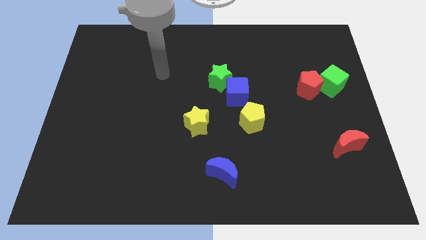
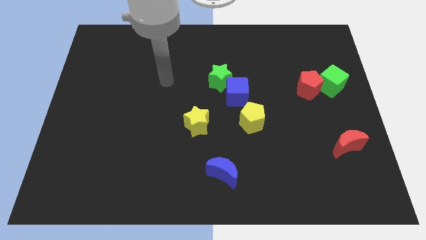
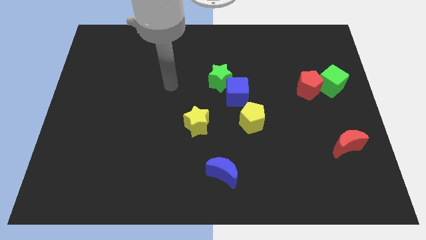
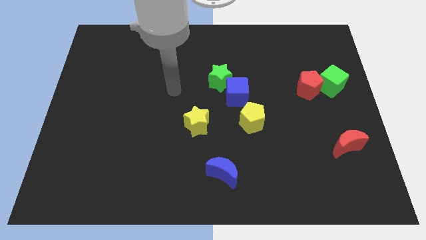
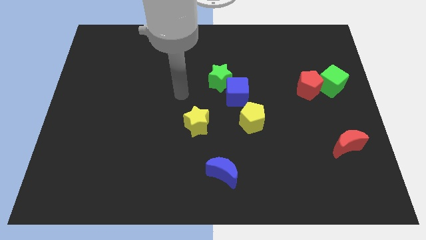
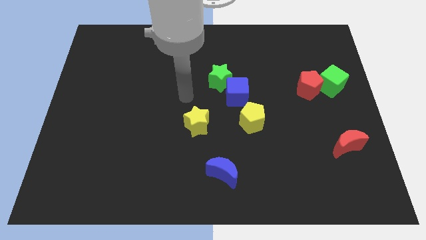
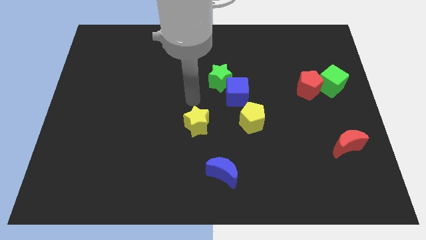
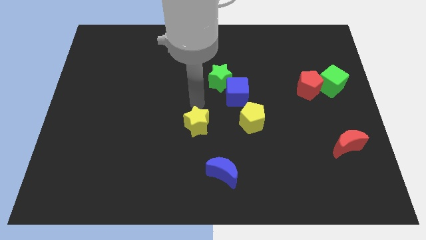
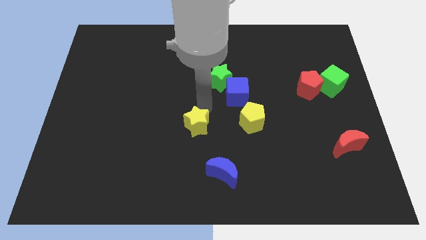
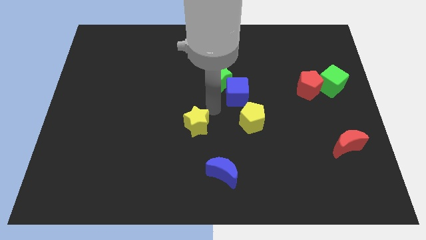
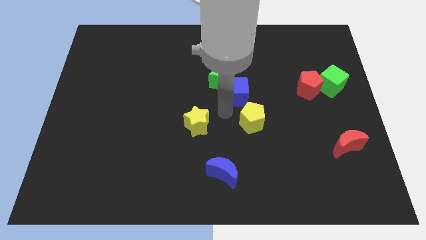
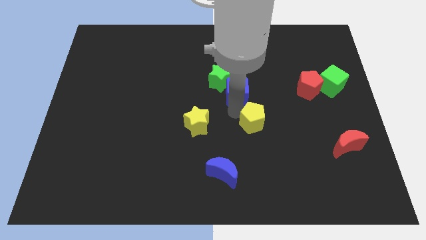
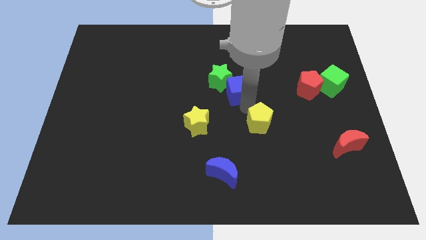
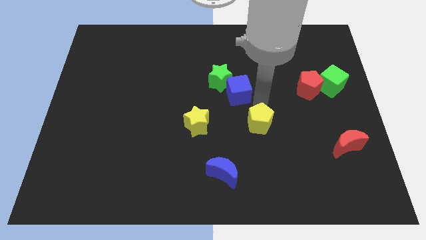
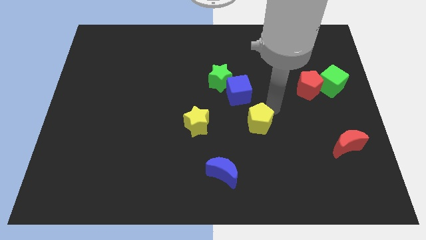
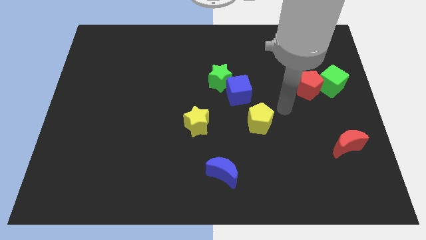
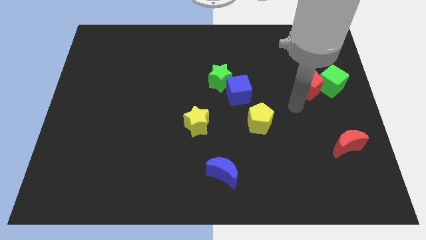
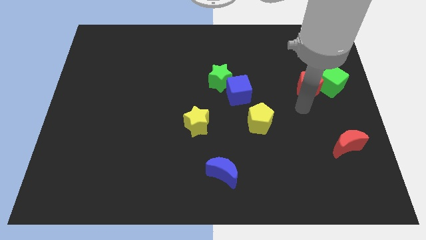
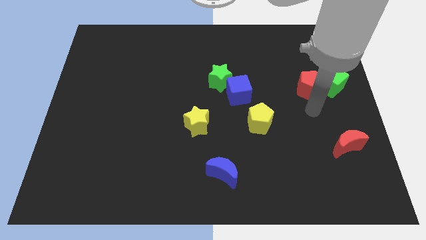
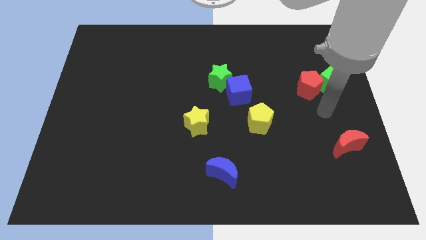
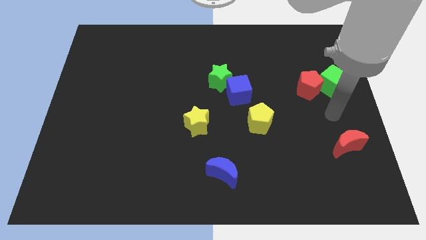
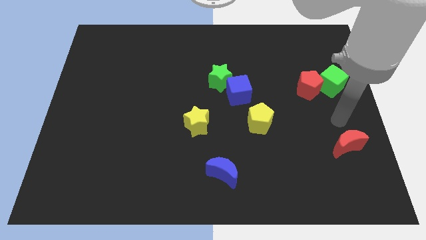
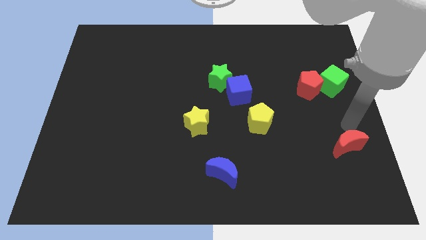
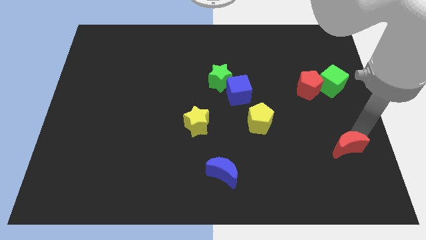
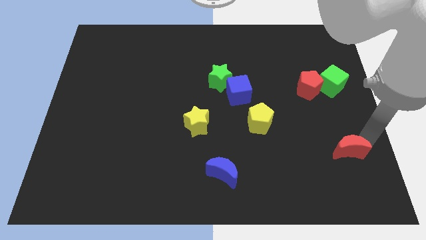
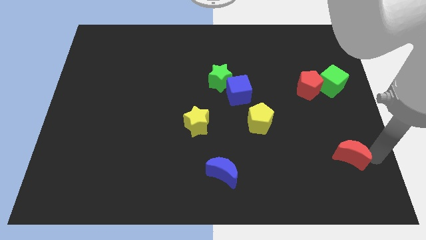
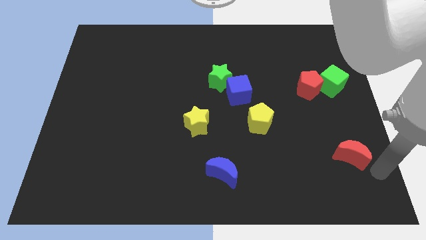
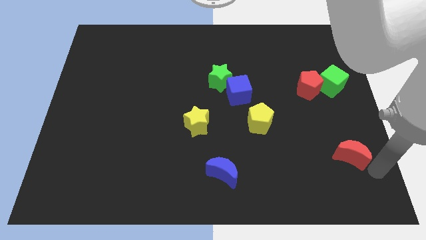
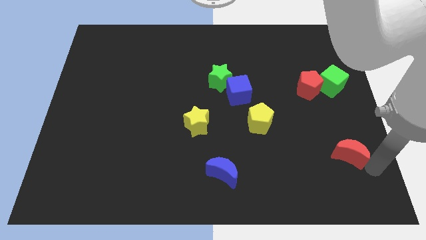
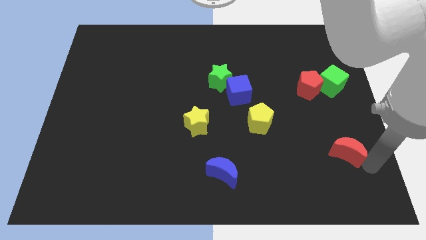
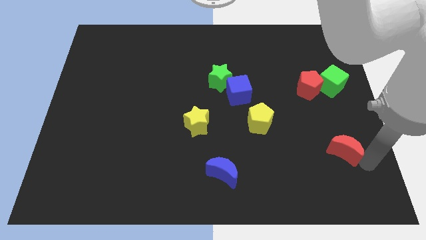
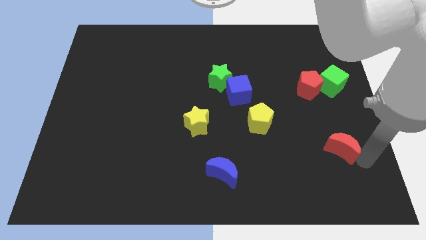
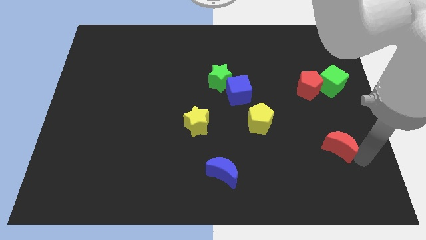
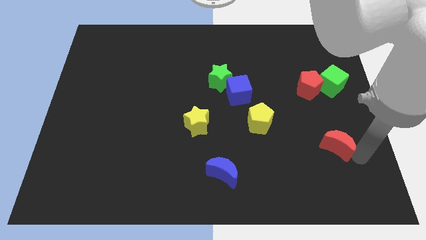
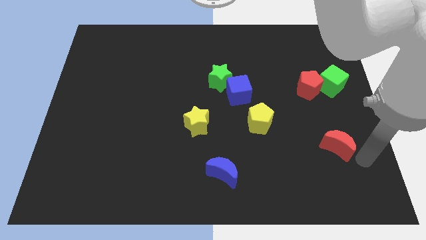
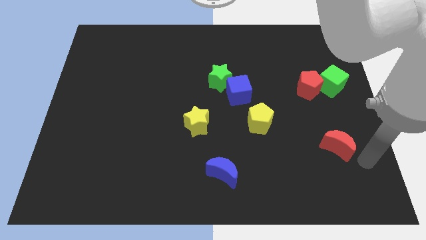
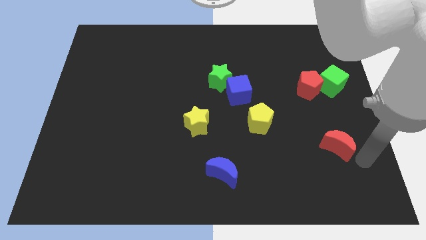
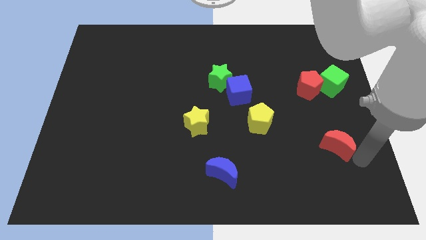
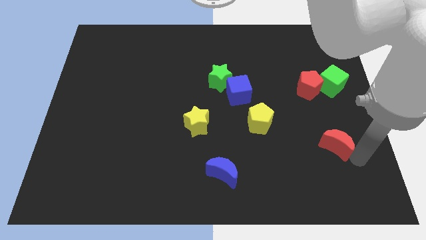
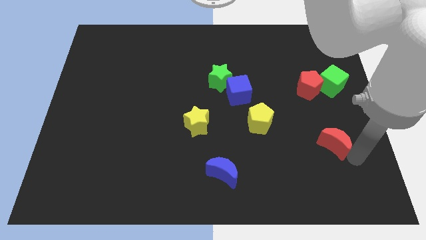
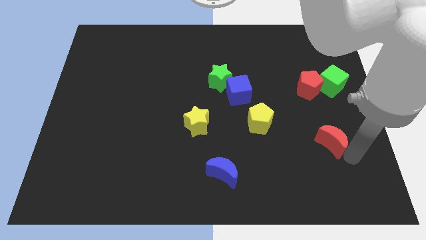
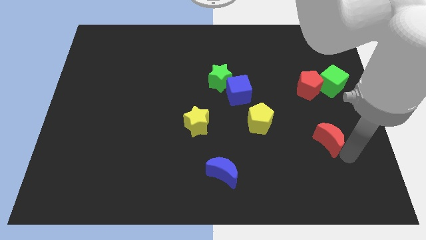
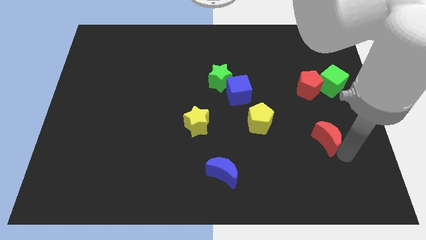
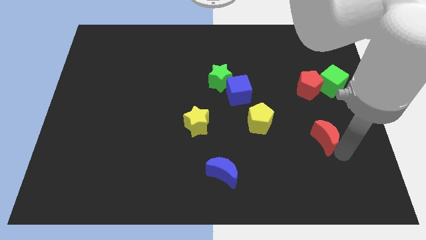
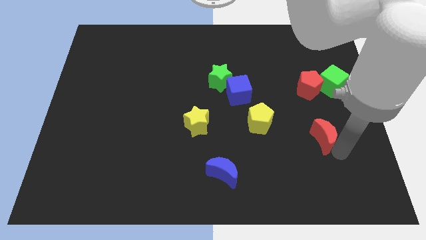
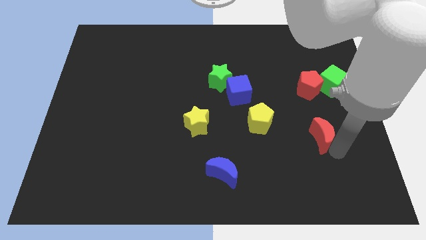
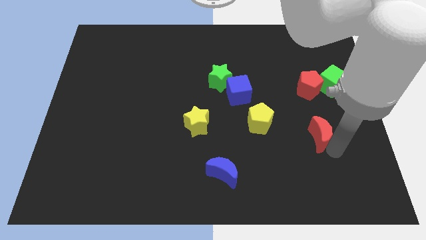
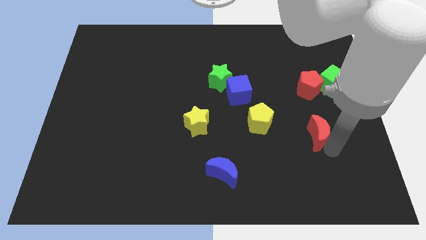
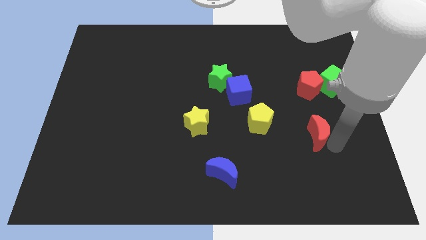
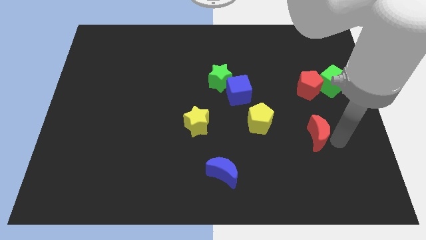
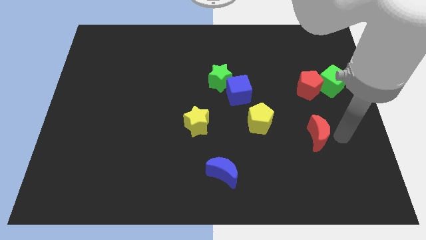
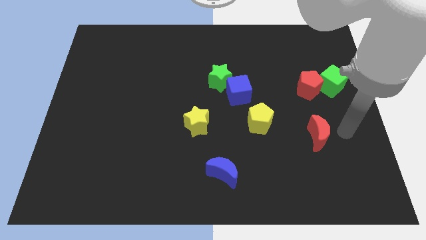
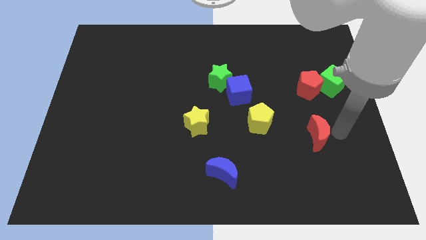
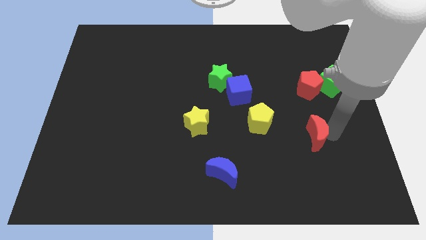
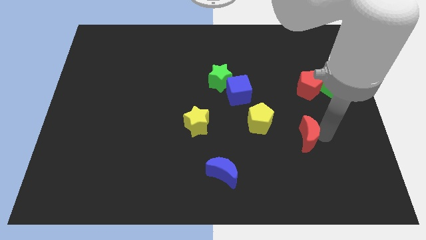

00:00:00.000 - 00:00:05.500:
put the red moon diagonally down and to the right of the yellow pentagon

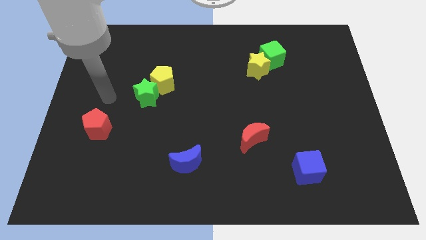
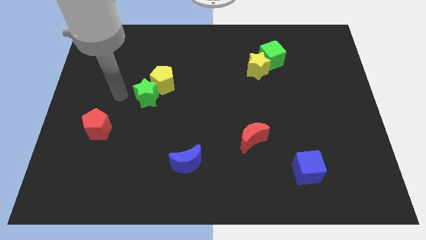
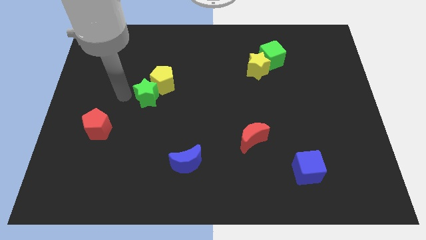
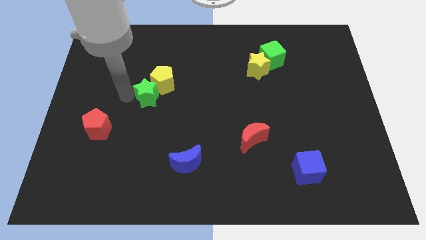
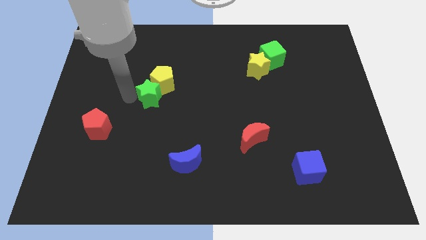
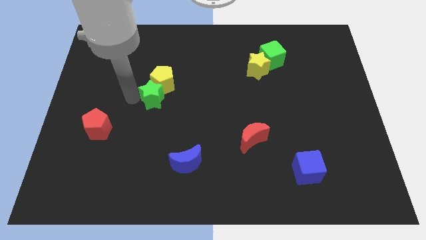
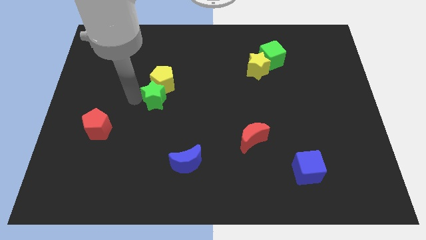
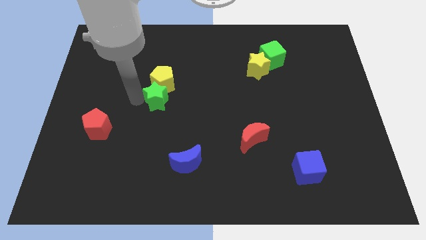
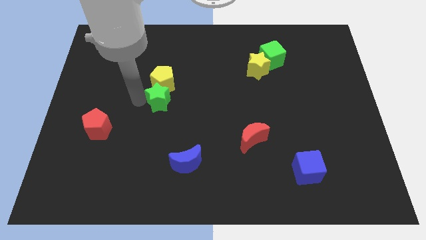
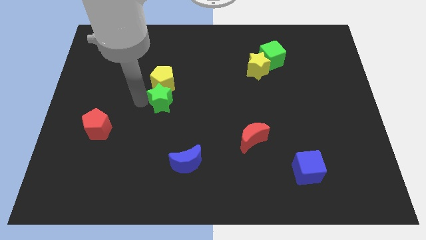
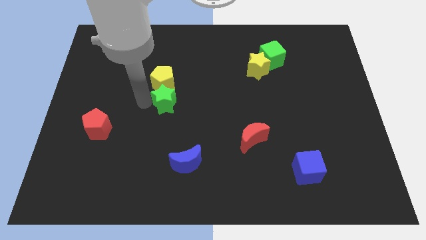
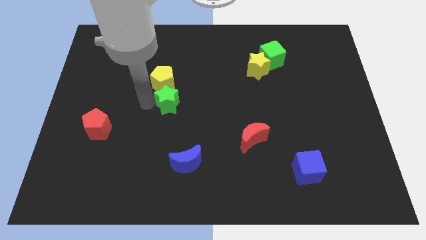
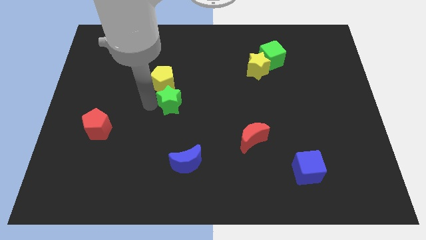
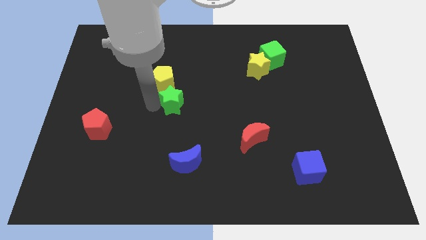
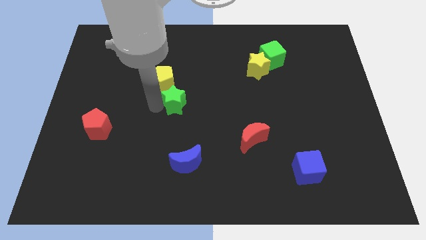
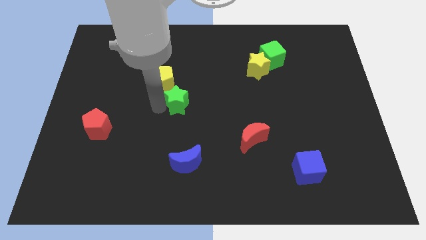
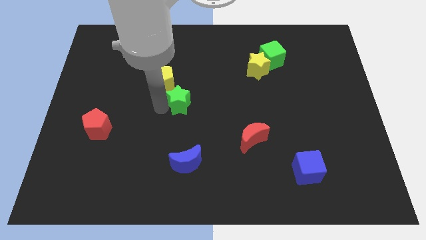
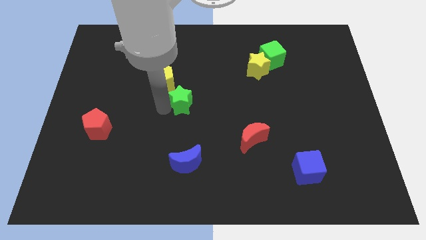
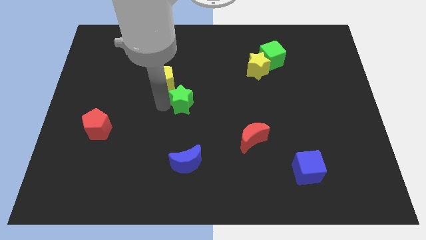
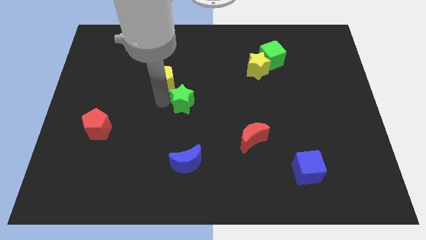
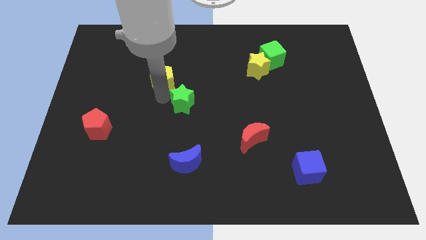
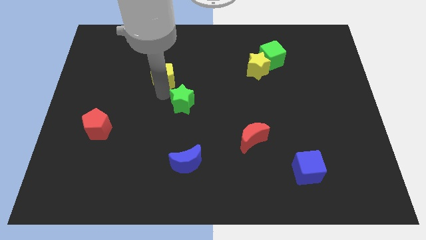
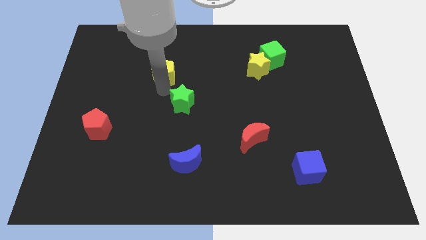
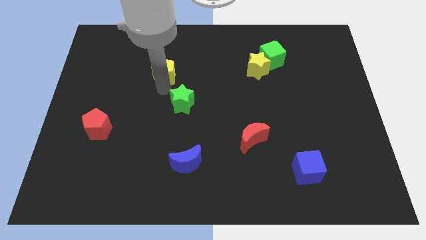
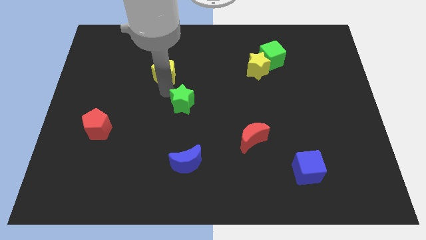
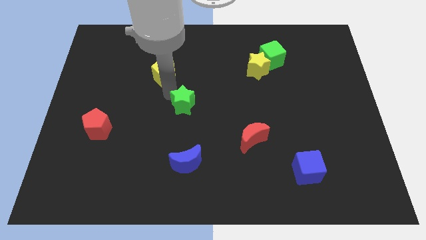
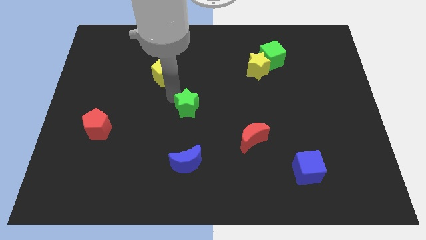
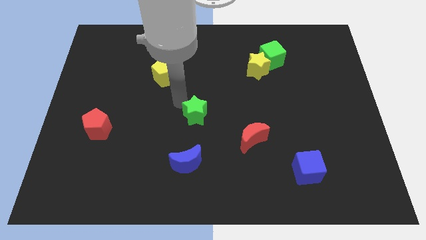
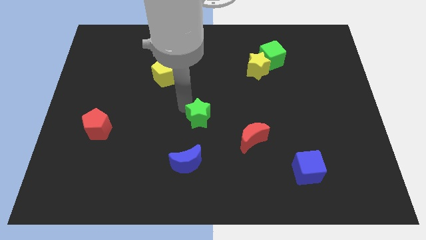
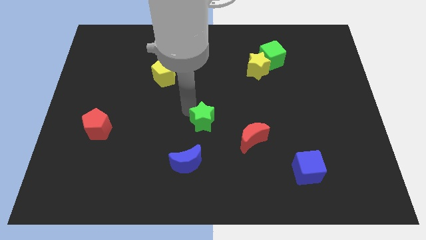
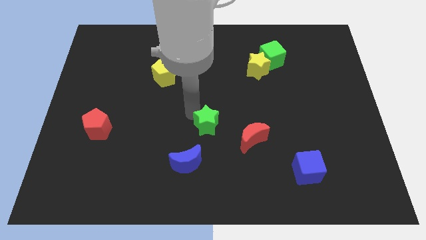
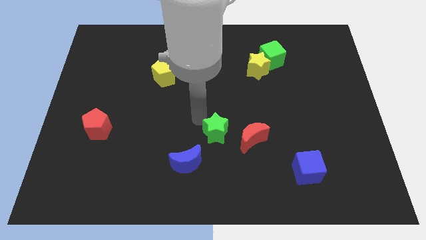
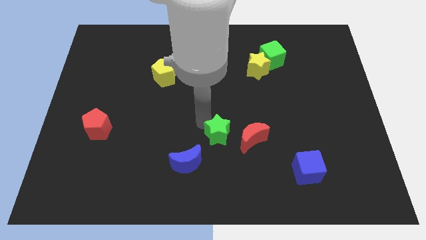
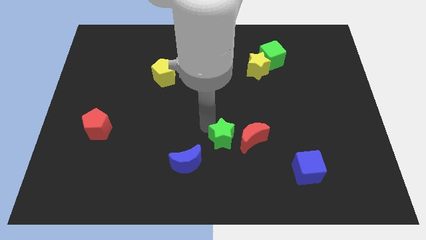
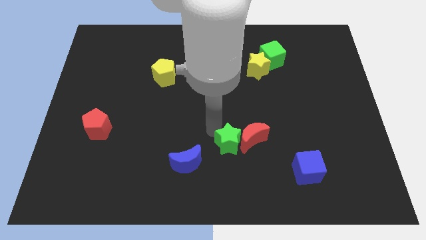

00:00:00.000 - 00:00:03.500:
slide the green star right of the blue moon
